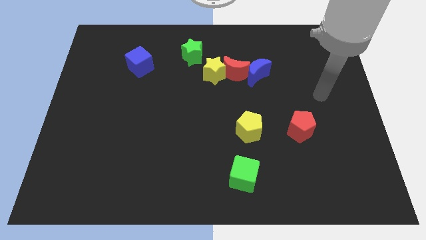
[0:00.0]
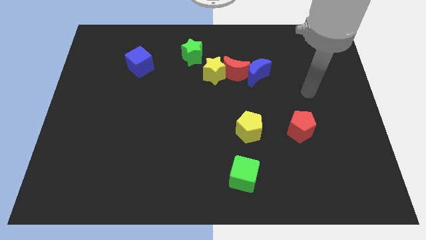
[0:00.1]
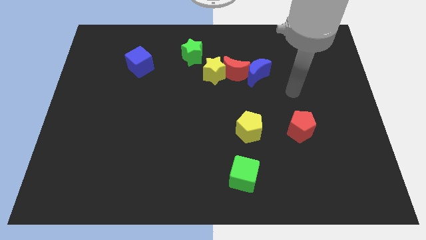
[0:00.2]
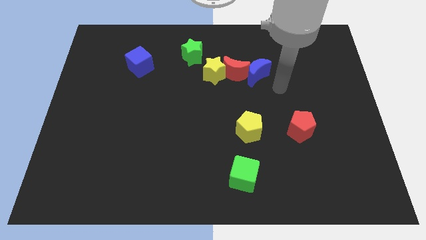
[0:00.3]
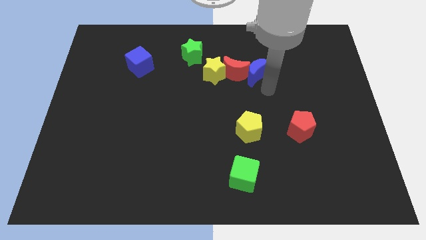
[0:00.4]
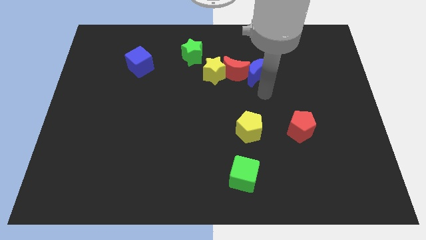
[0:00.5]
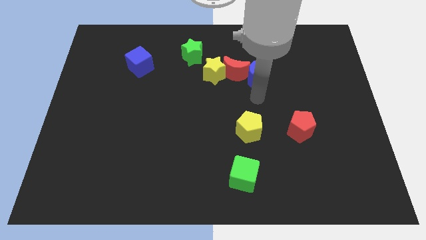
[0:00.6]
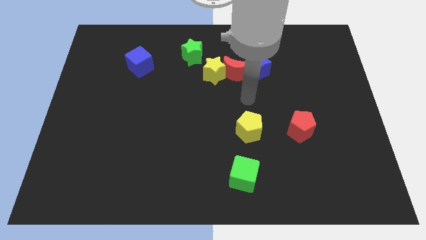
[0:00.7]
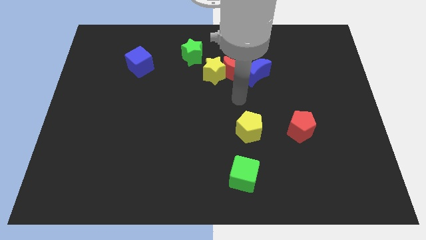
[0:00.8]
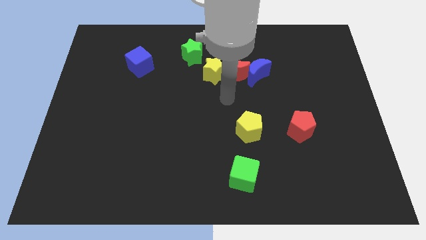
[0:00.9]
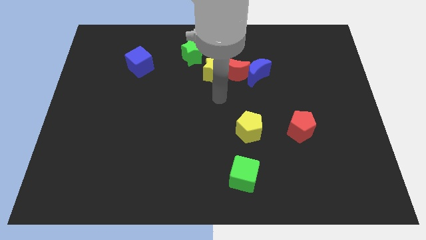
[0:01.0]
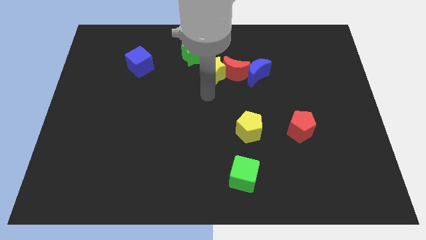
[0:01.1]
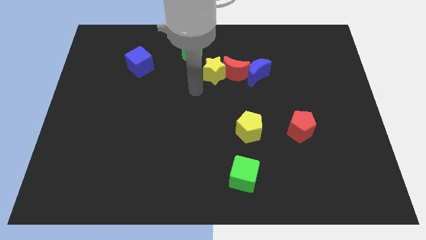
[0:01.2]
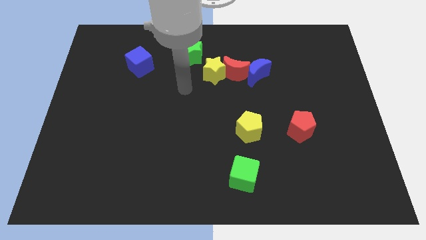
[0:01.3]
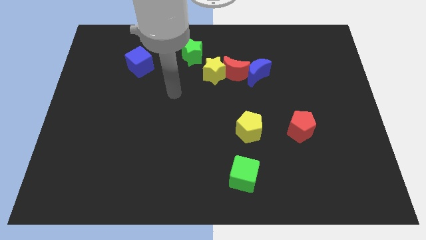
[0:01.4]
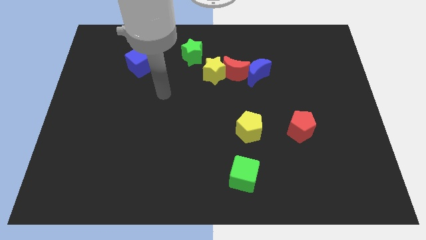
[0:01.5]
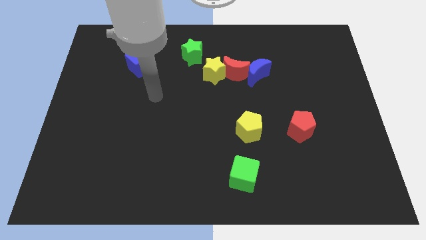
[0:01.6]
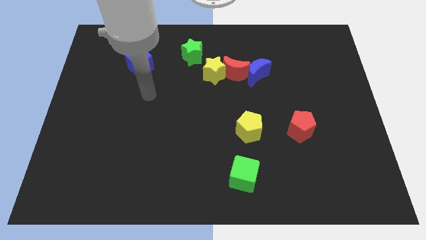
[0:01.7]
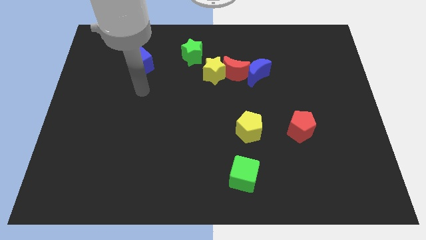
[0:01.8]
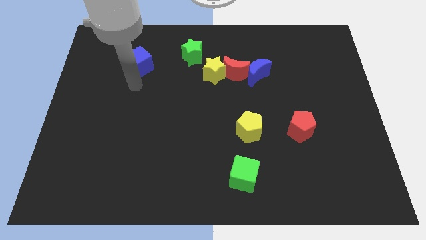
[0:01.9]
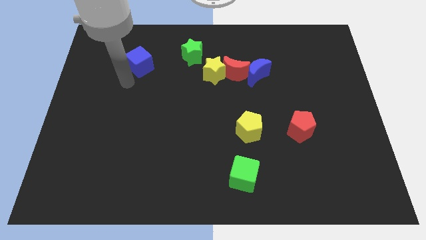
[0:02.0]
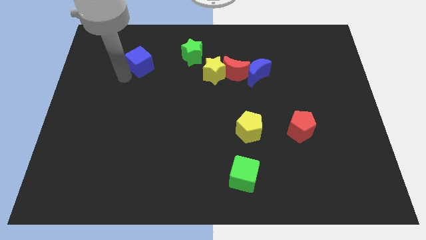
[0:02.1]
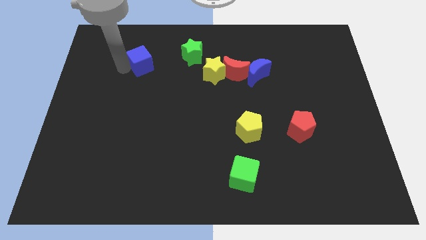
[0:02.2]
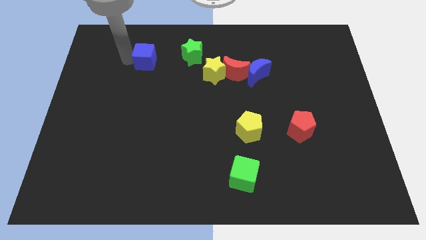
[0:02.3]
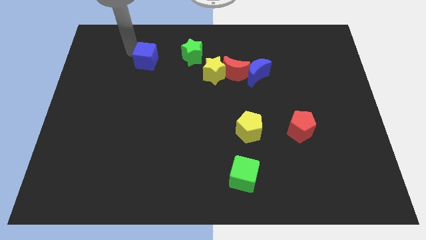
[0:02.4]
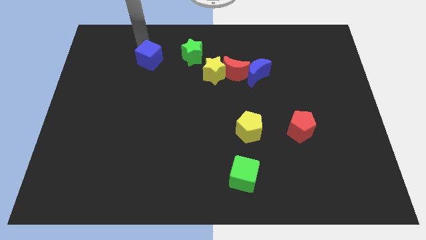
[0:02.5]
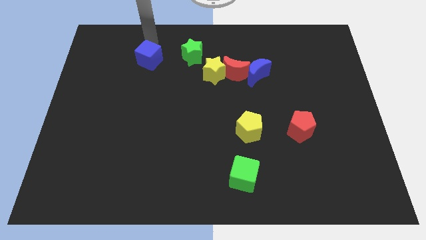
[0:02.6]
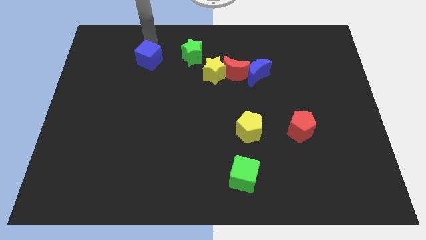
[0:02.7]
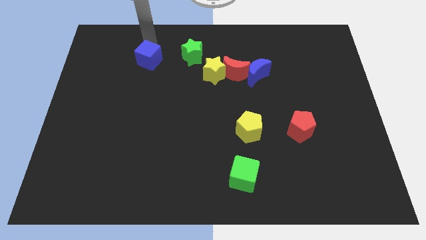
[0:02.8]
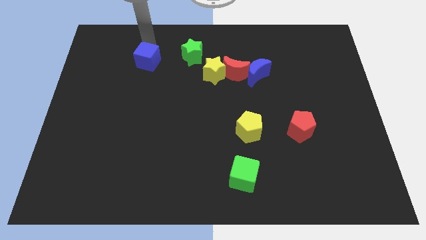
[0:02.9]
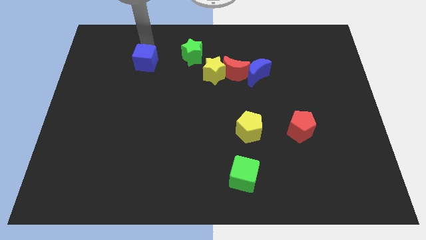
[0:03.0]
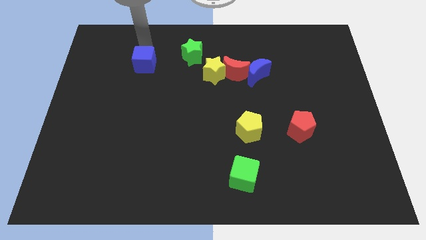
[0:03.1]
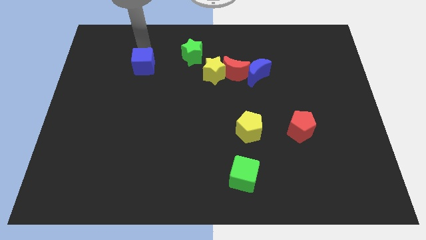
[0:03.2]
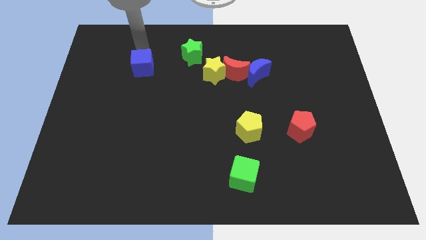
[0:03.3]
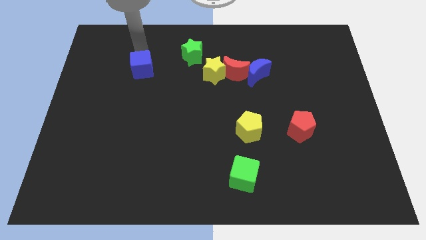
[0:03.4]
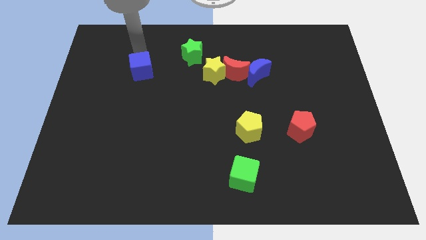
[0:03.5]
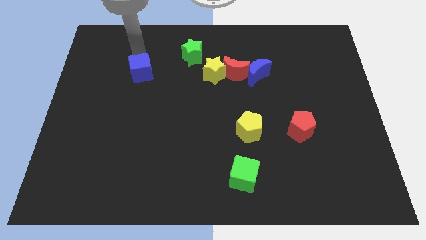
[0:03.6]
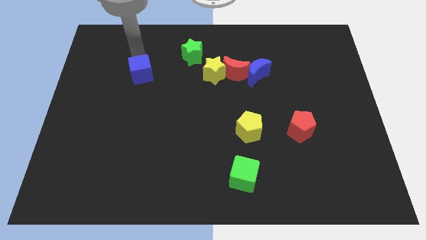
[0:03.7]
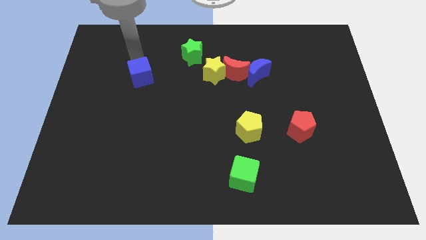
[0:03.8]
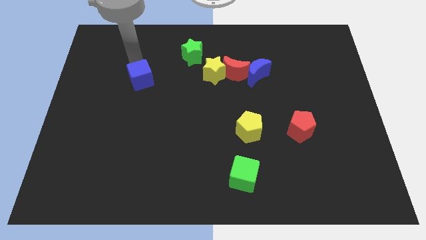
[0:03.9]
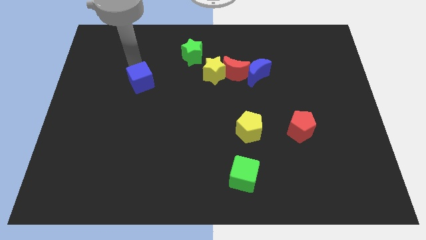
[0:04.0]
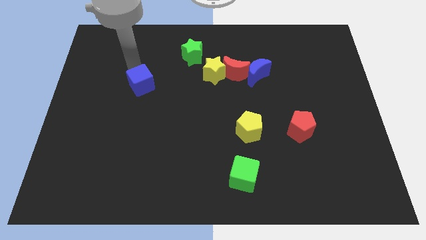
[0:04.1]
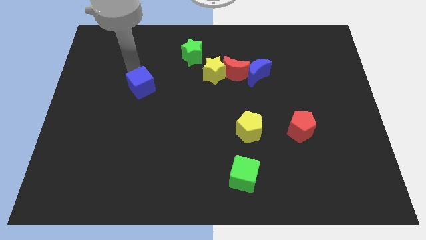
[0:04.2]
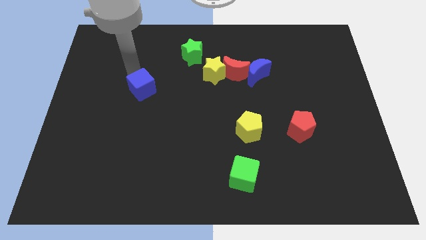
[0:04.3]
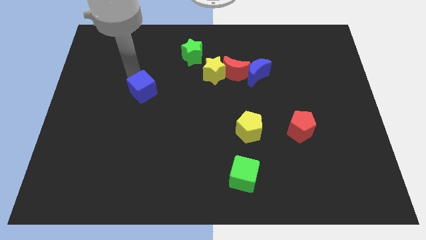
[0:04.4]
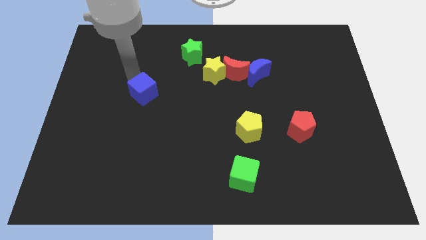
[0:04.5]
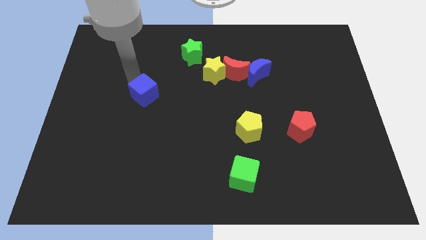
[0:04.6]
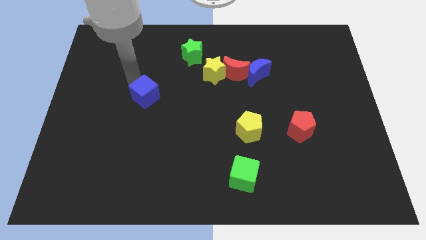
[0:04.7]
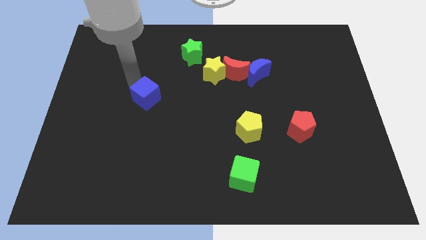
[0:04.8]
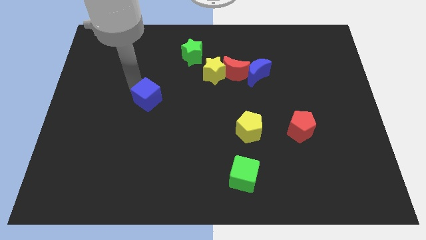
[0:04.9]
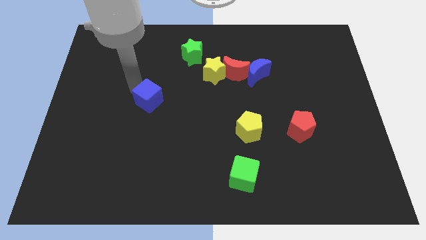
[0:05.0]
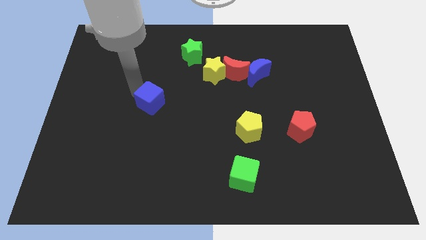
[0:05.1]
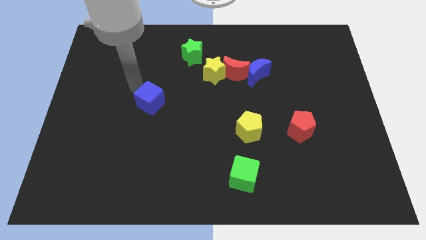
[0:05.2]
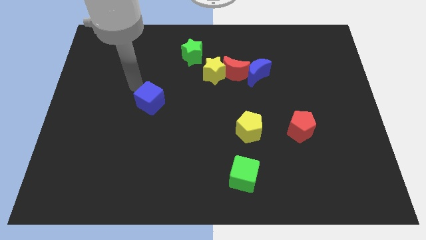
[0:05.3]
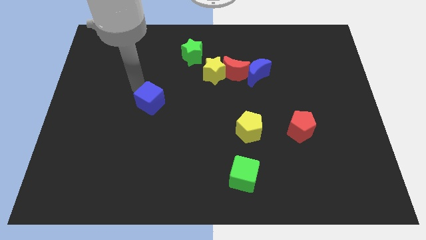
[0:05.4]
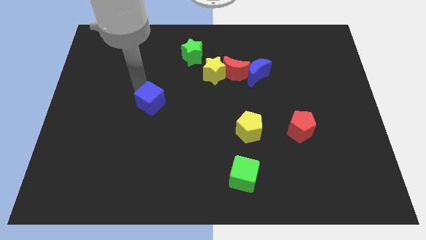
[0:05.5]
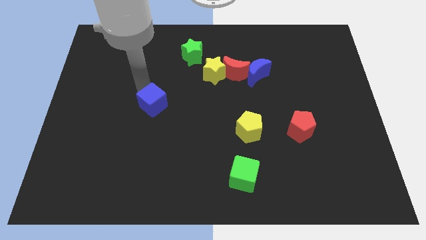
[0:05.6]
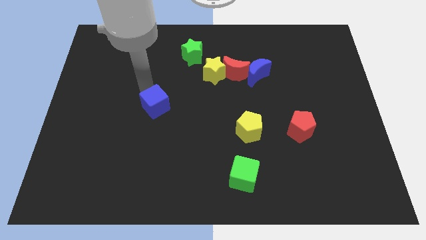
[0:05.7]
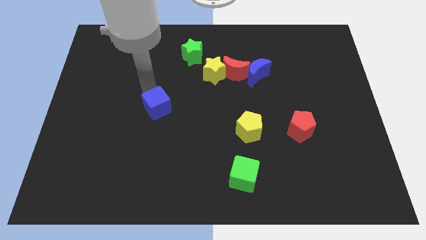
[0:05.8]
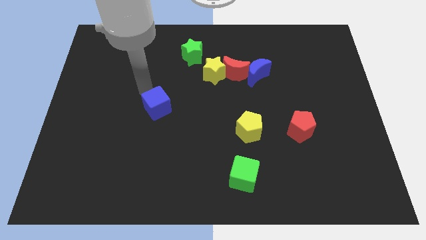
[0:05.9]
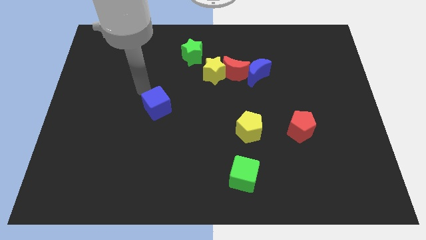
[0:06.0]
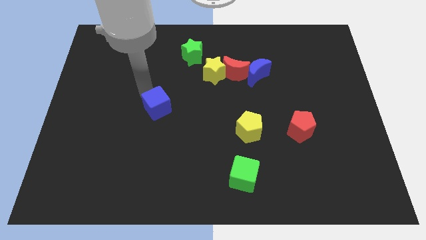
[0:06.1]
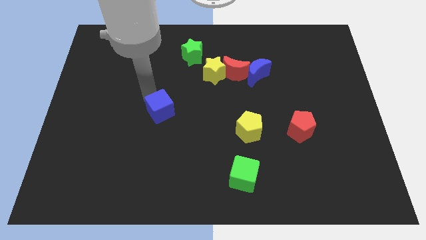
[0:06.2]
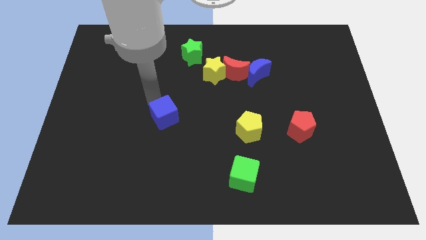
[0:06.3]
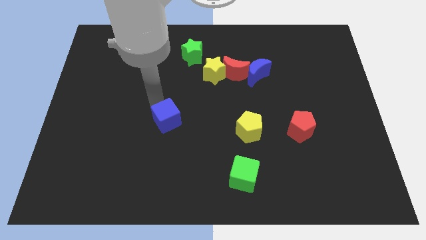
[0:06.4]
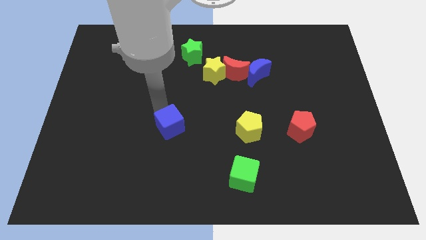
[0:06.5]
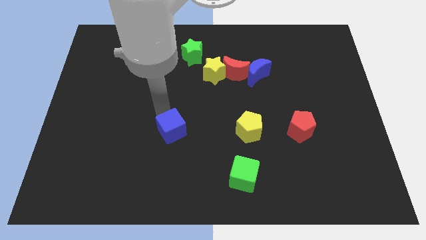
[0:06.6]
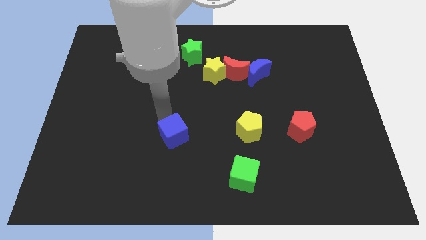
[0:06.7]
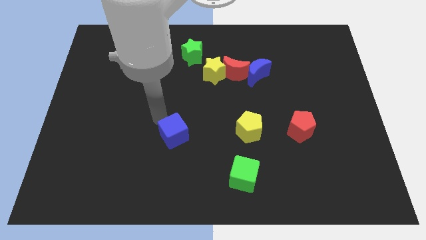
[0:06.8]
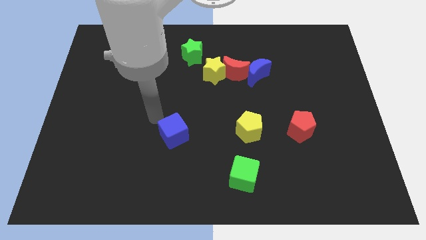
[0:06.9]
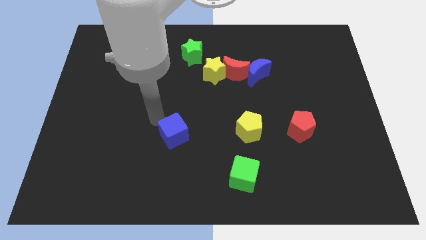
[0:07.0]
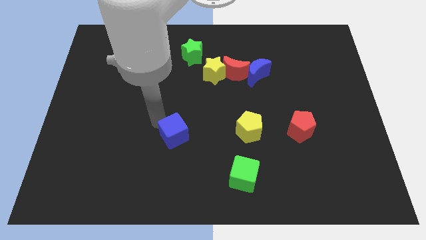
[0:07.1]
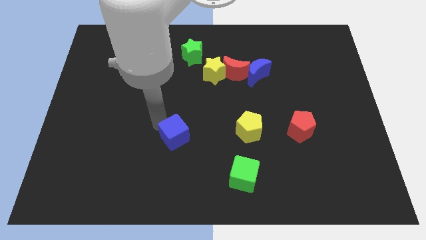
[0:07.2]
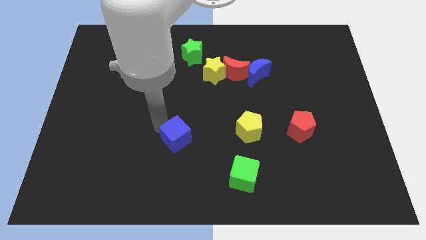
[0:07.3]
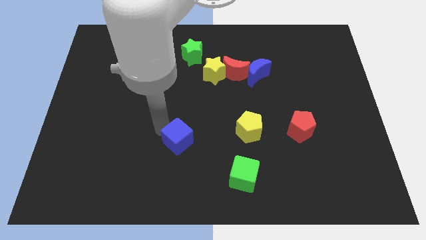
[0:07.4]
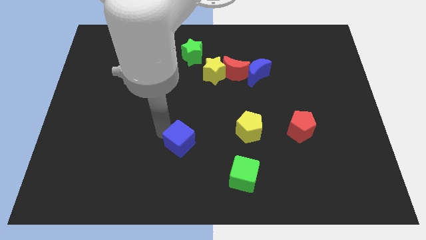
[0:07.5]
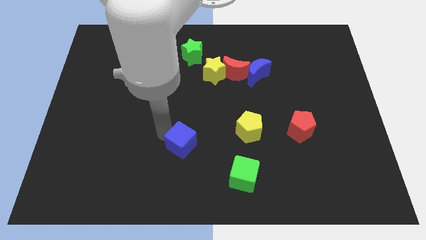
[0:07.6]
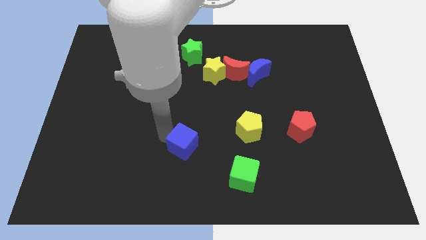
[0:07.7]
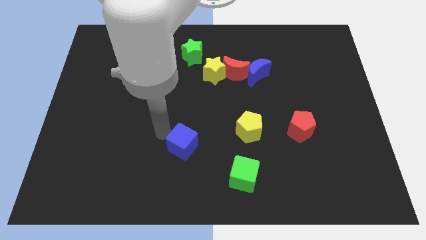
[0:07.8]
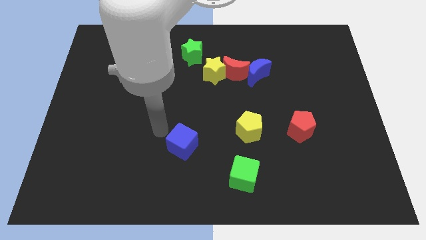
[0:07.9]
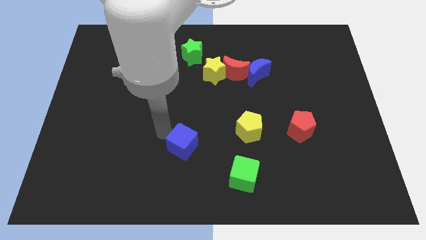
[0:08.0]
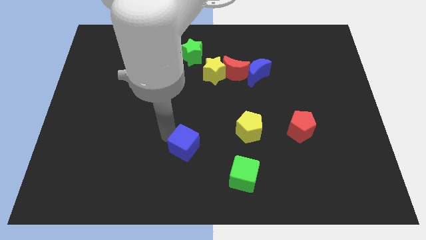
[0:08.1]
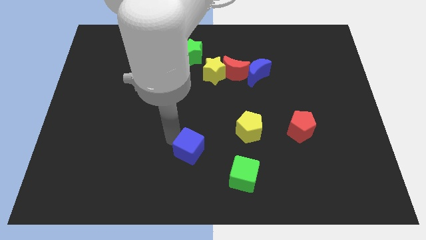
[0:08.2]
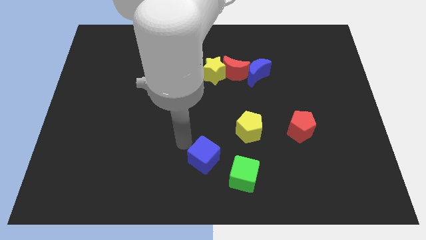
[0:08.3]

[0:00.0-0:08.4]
move the blue cube to the bottom
